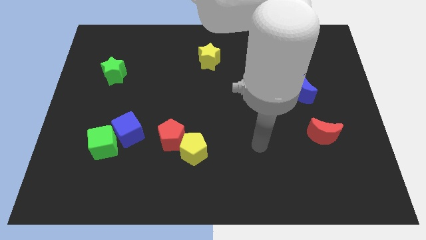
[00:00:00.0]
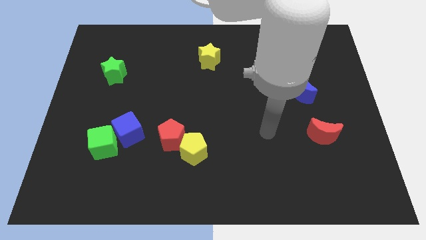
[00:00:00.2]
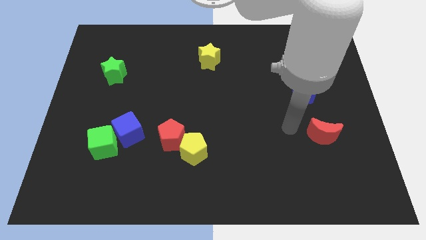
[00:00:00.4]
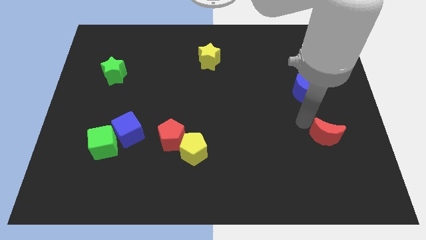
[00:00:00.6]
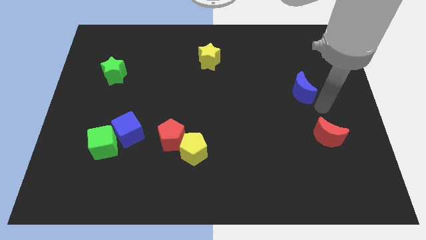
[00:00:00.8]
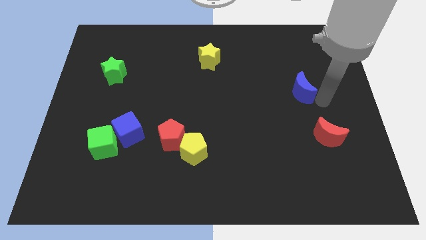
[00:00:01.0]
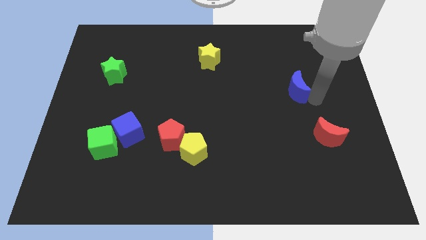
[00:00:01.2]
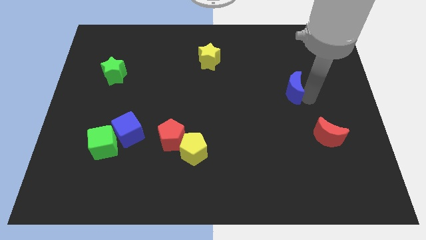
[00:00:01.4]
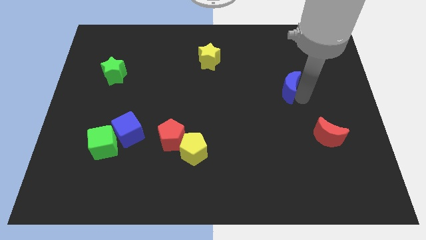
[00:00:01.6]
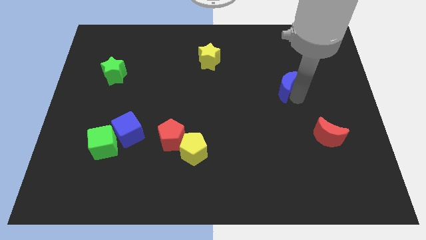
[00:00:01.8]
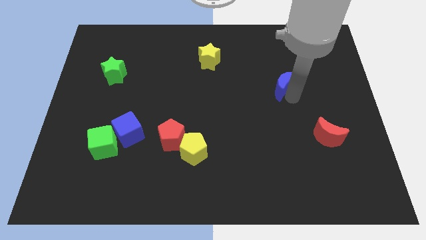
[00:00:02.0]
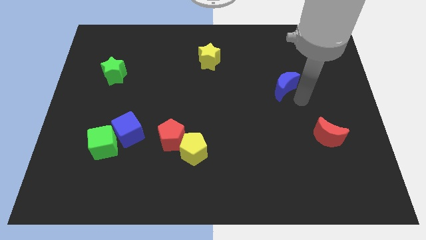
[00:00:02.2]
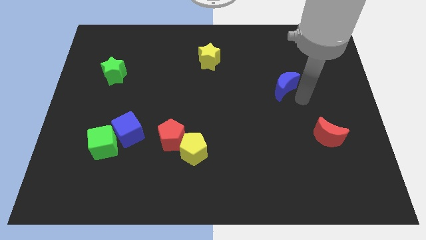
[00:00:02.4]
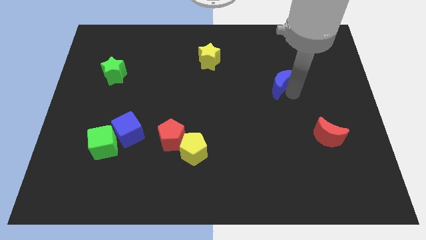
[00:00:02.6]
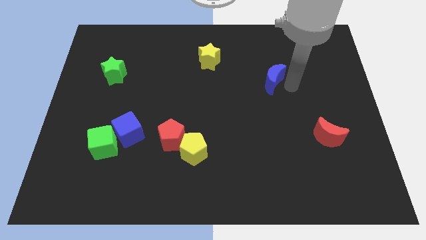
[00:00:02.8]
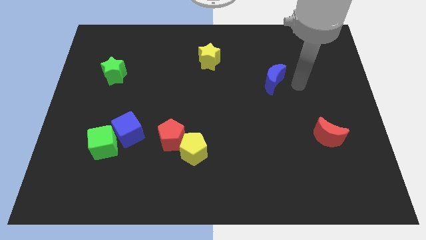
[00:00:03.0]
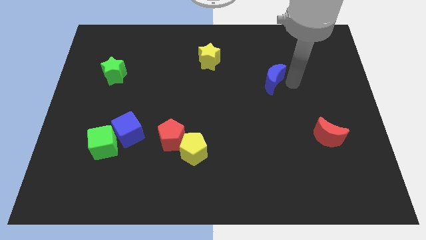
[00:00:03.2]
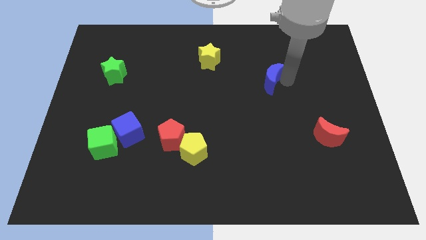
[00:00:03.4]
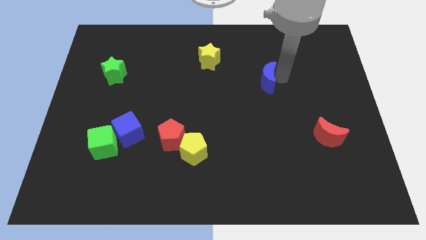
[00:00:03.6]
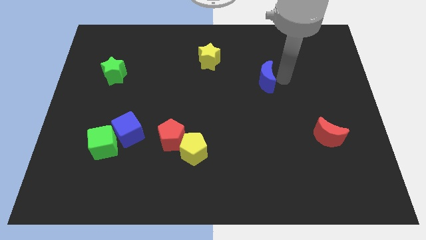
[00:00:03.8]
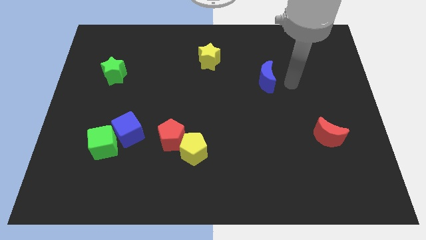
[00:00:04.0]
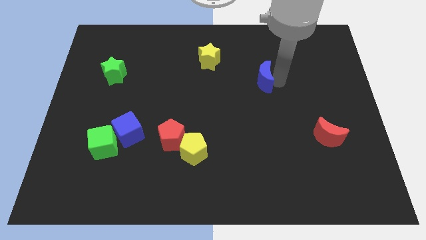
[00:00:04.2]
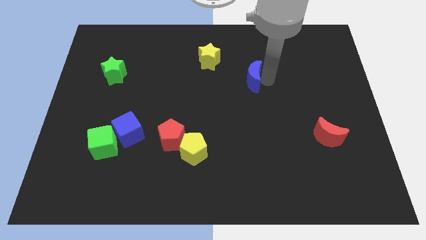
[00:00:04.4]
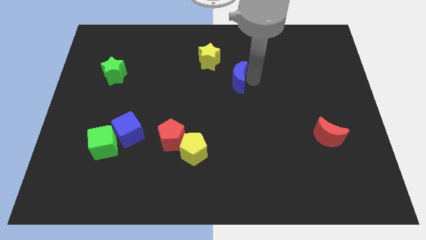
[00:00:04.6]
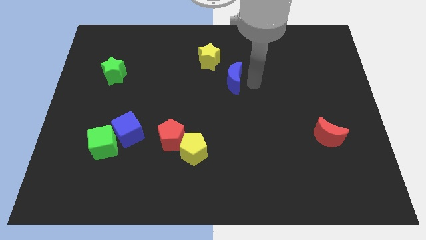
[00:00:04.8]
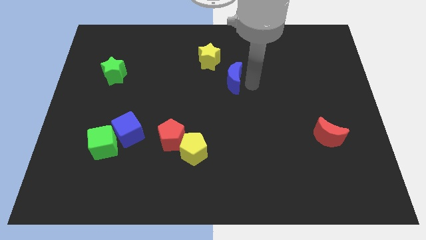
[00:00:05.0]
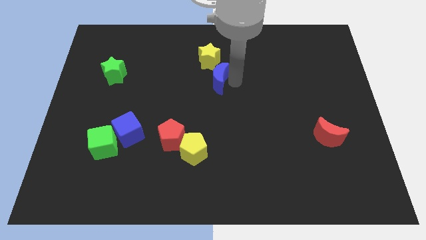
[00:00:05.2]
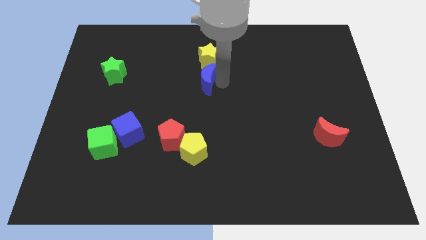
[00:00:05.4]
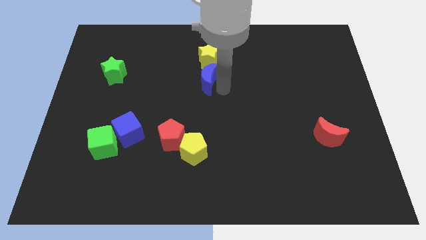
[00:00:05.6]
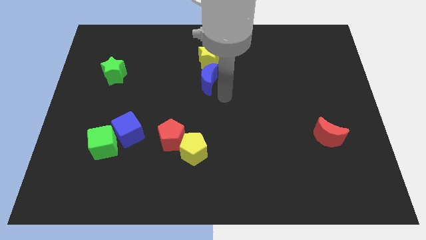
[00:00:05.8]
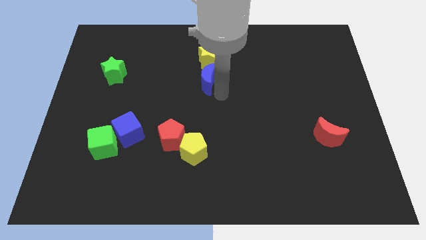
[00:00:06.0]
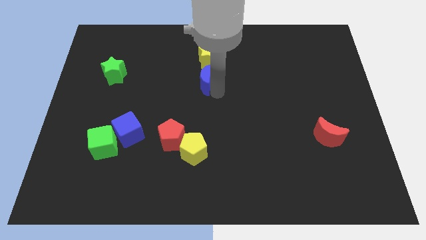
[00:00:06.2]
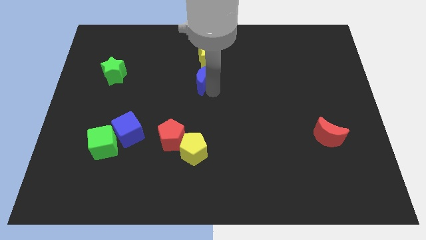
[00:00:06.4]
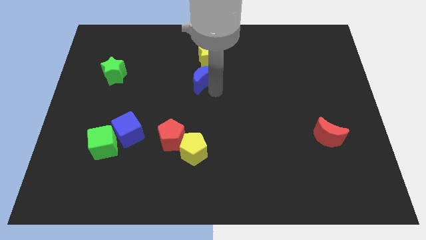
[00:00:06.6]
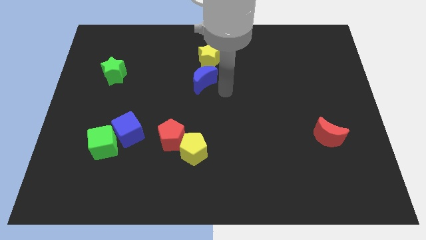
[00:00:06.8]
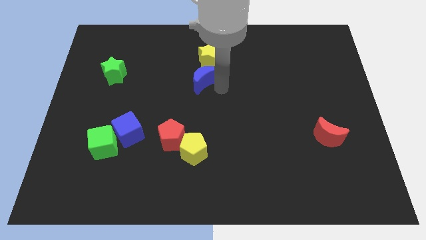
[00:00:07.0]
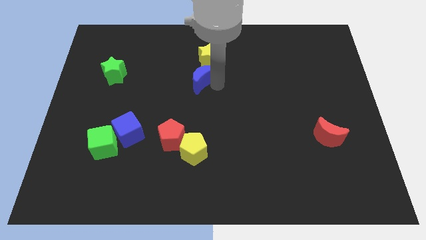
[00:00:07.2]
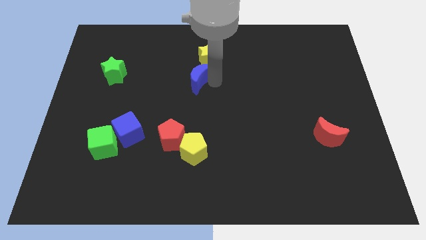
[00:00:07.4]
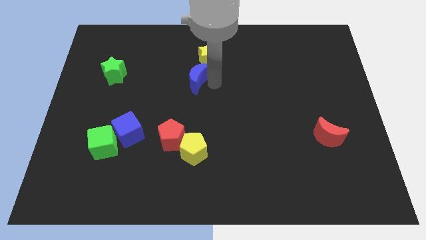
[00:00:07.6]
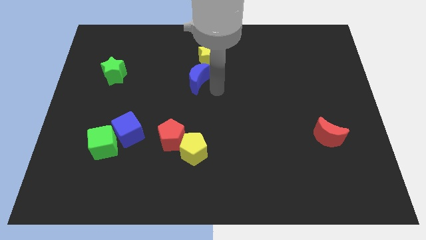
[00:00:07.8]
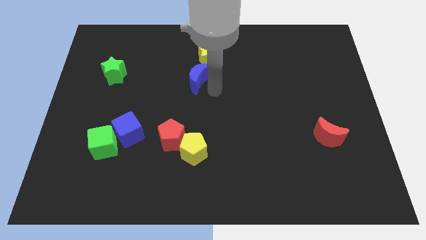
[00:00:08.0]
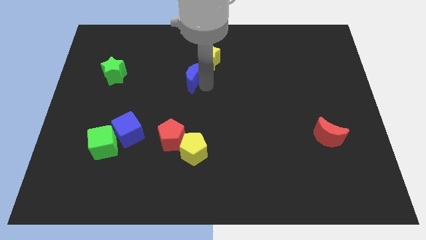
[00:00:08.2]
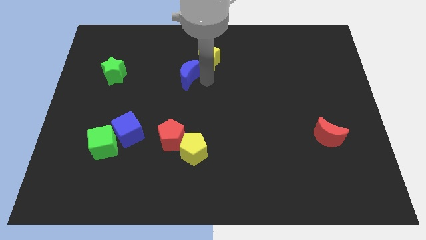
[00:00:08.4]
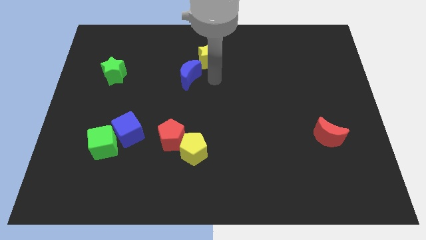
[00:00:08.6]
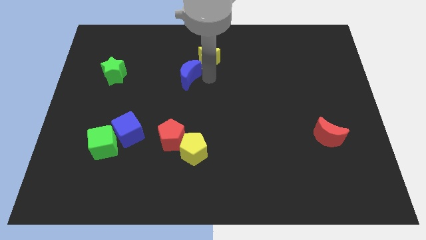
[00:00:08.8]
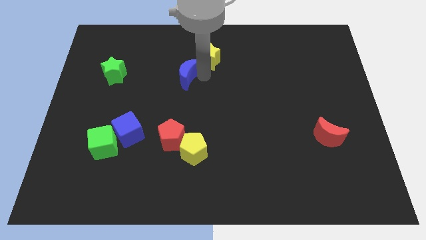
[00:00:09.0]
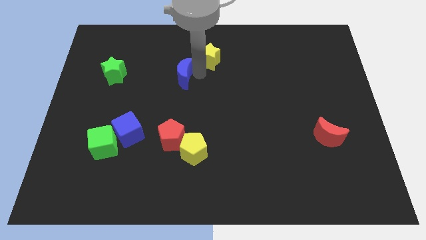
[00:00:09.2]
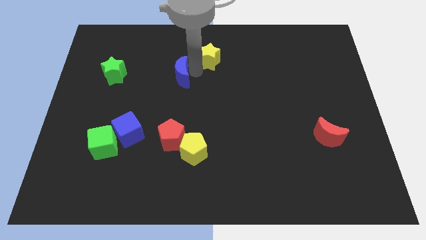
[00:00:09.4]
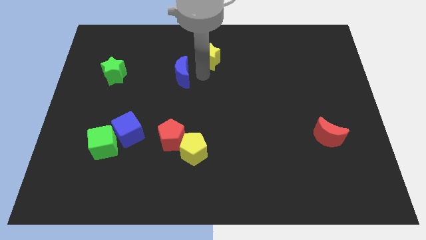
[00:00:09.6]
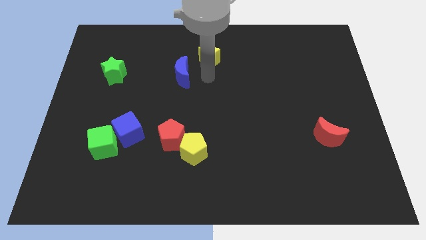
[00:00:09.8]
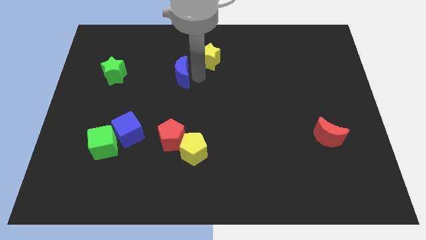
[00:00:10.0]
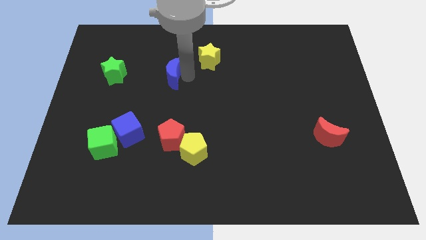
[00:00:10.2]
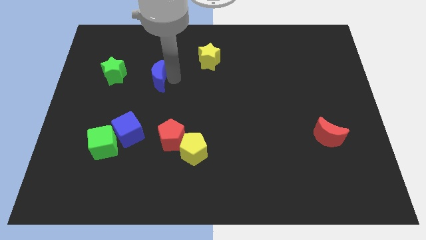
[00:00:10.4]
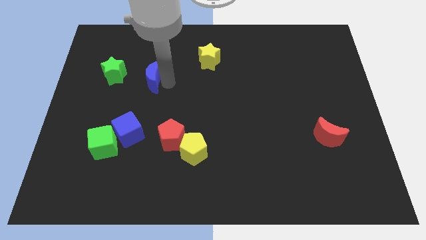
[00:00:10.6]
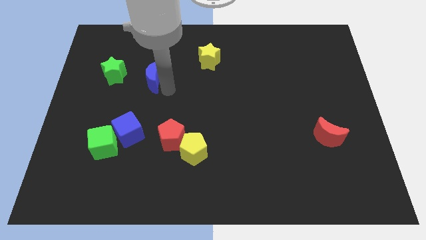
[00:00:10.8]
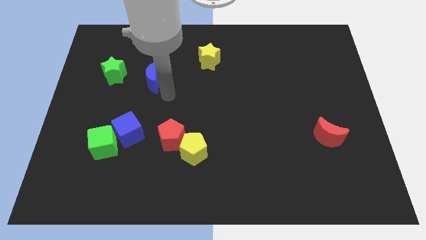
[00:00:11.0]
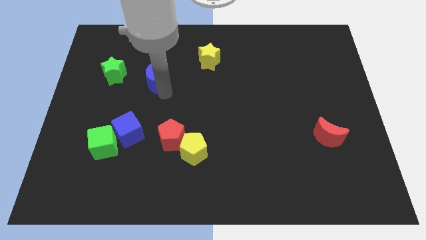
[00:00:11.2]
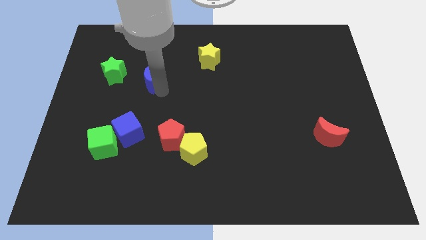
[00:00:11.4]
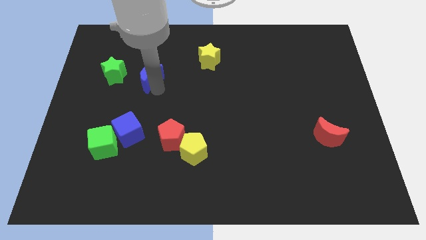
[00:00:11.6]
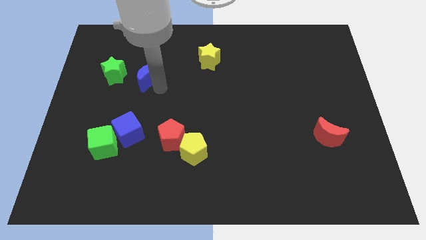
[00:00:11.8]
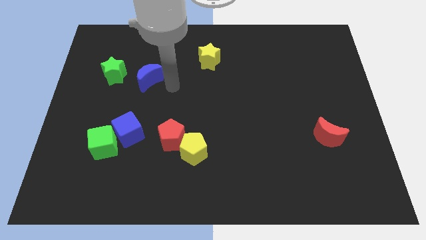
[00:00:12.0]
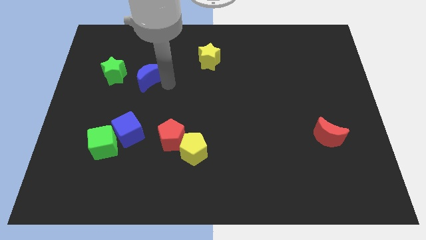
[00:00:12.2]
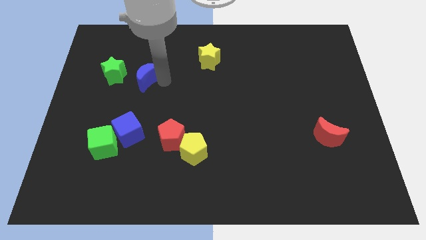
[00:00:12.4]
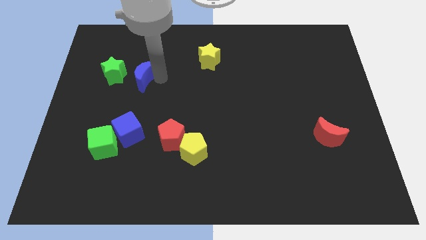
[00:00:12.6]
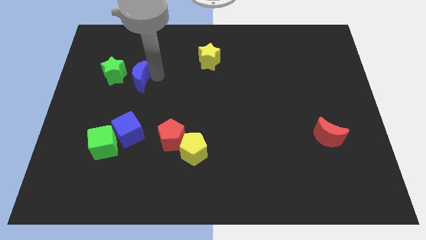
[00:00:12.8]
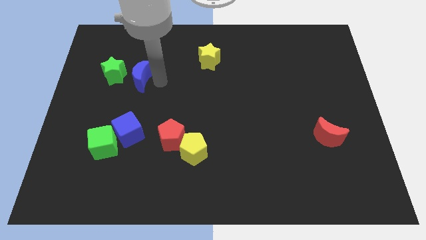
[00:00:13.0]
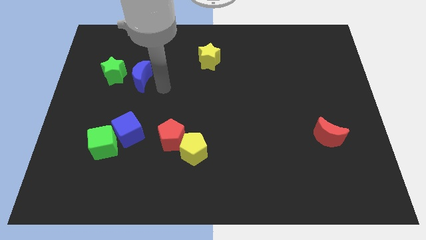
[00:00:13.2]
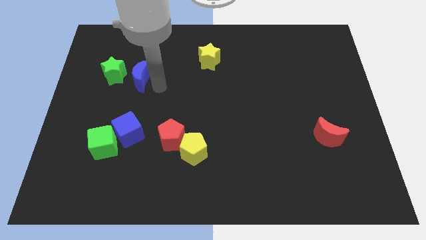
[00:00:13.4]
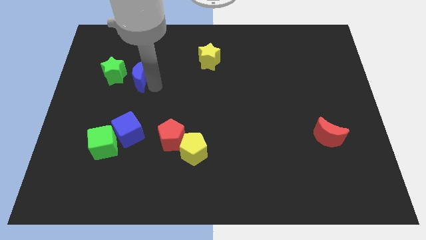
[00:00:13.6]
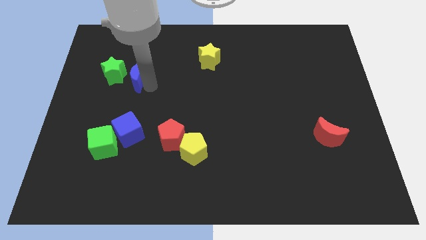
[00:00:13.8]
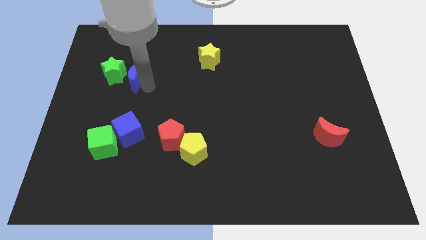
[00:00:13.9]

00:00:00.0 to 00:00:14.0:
put the blue moon to the green star
